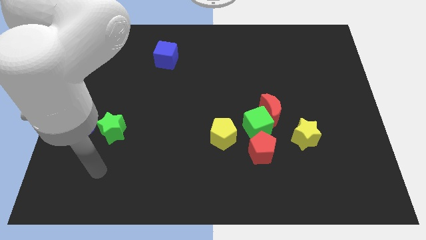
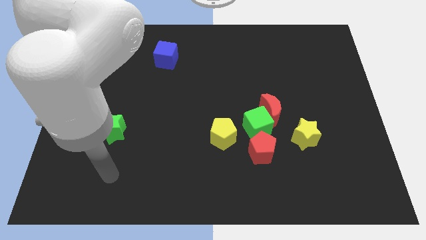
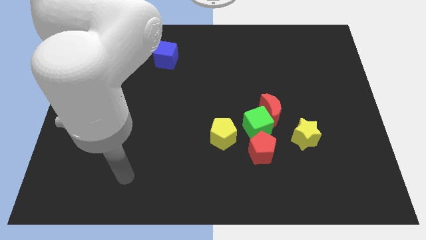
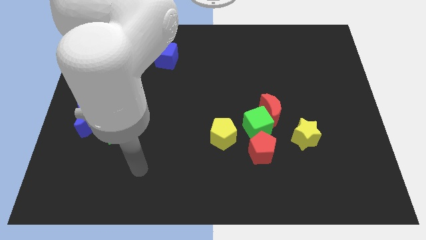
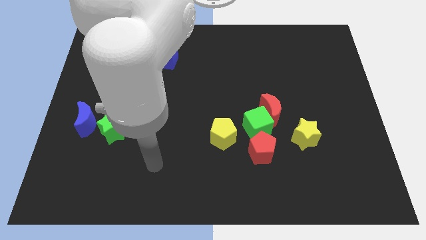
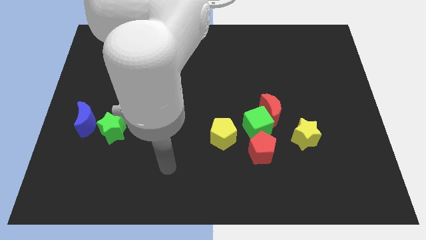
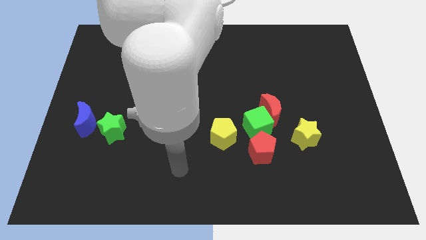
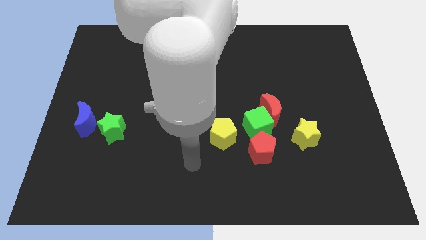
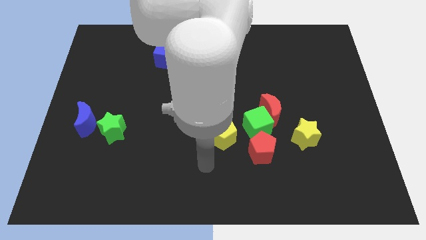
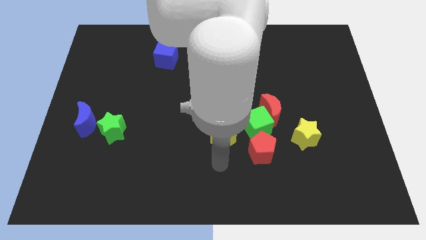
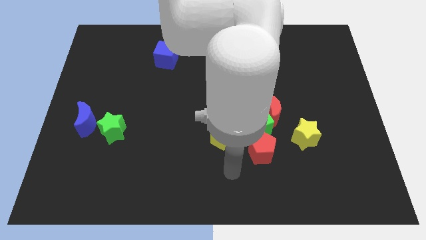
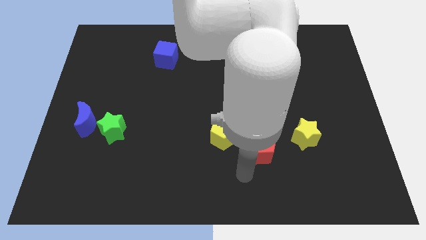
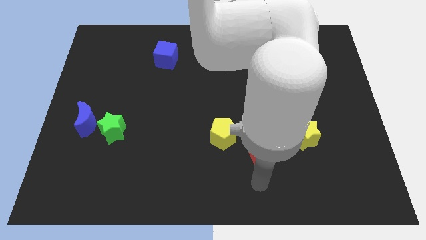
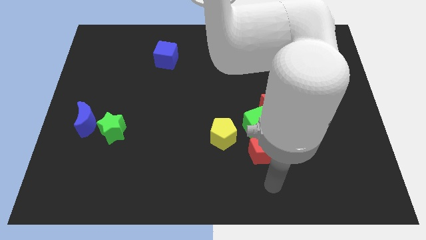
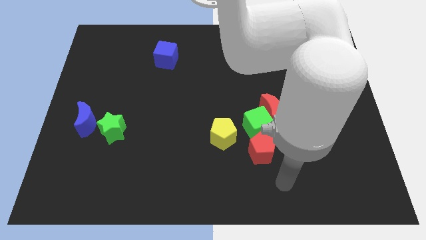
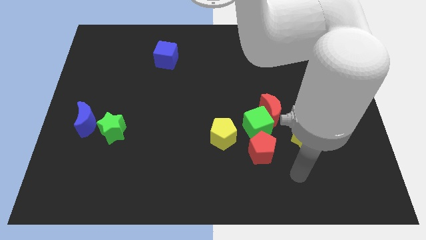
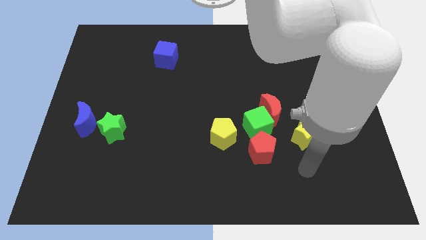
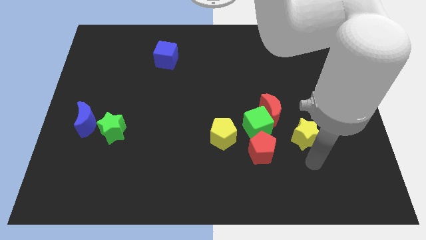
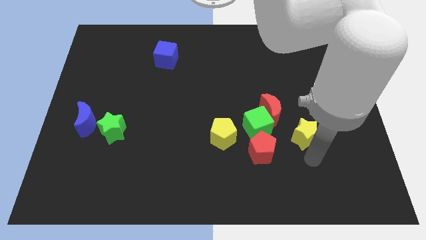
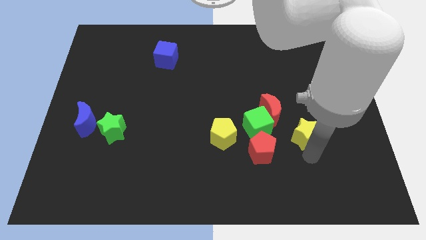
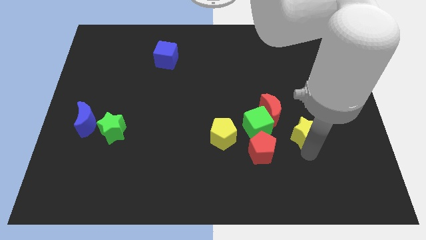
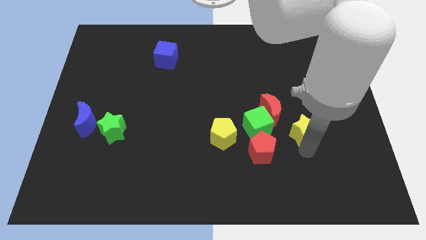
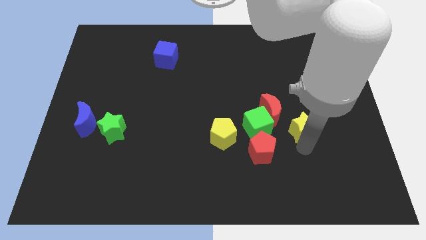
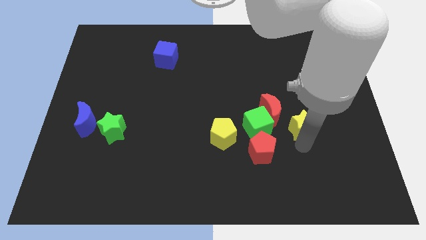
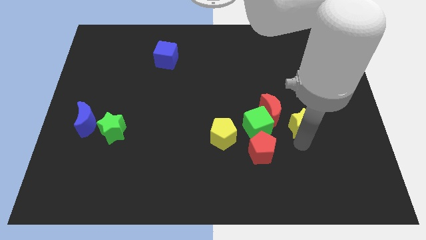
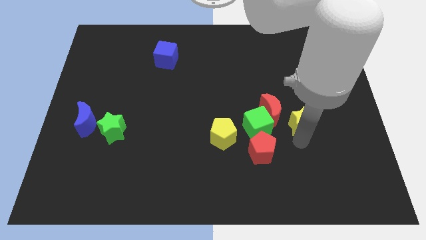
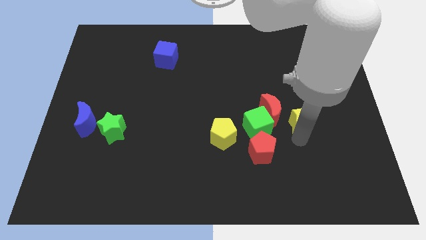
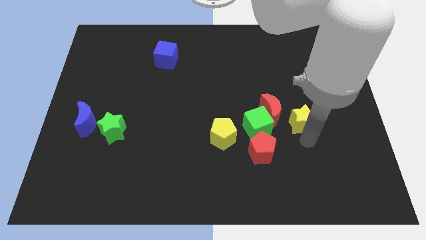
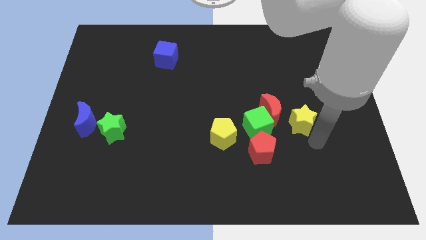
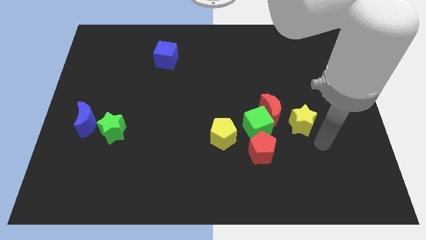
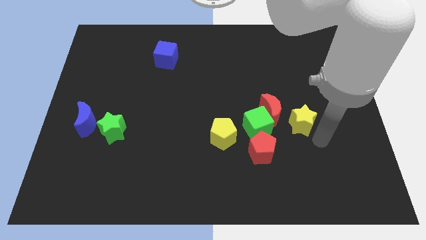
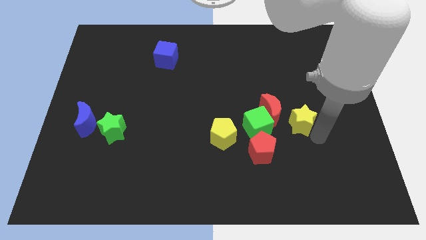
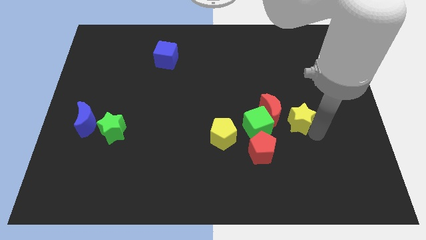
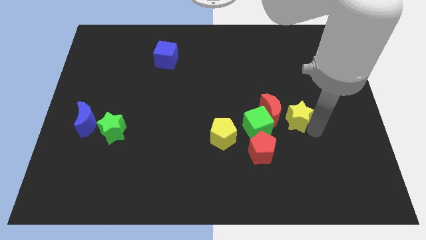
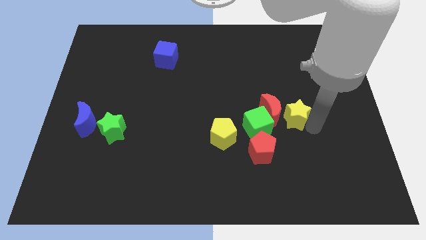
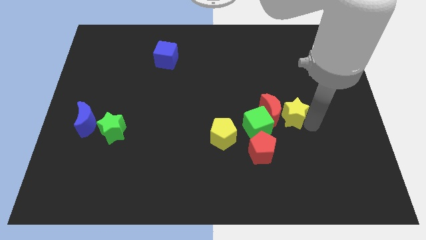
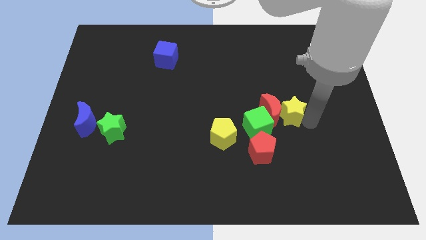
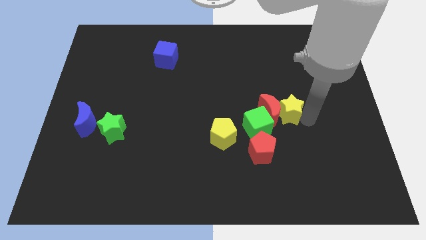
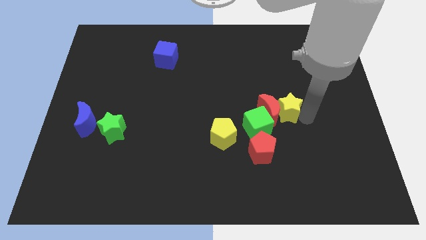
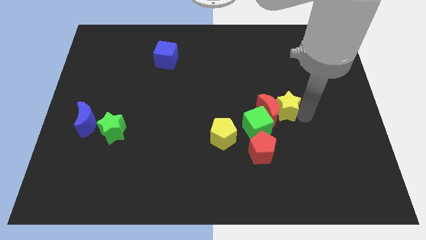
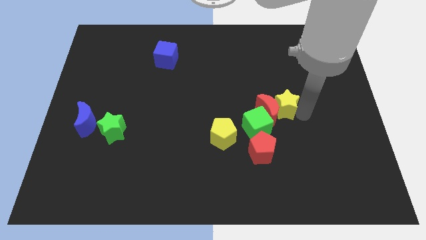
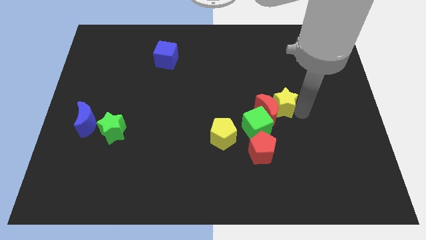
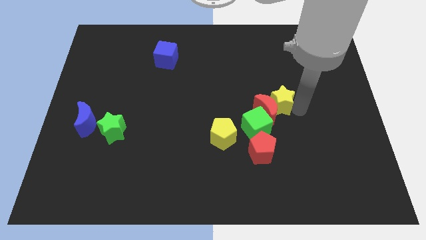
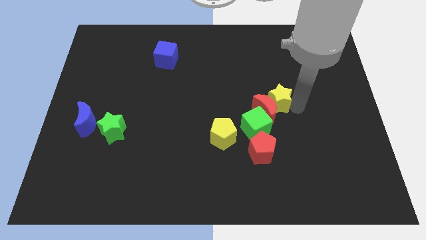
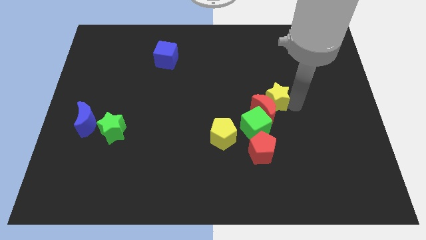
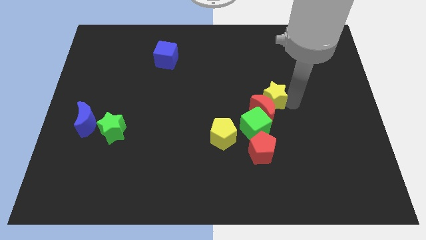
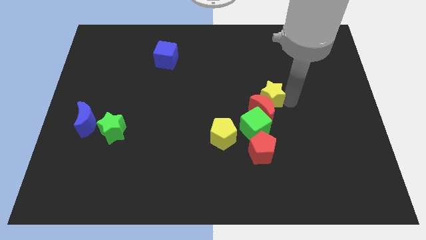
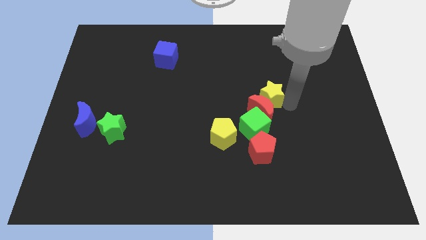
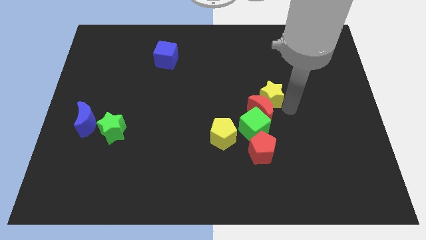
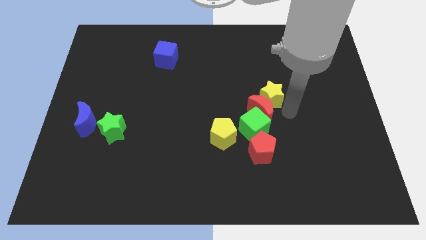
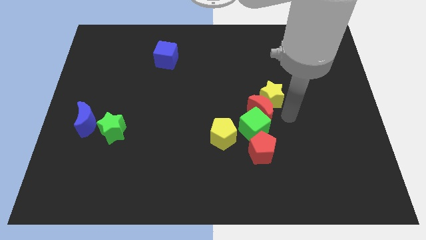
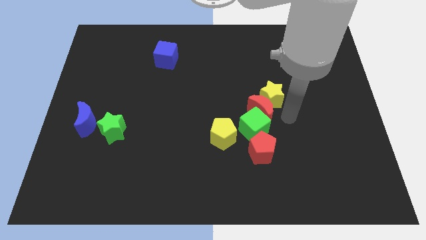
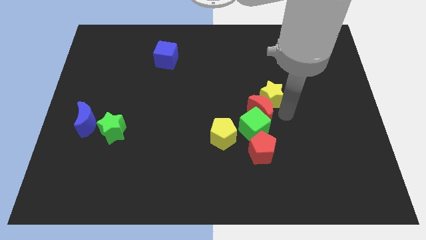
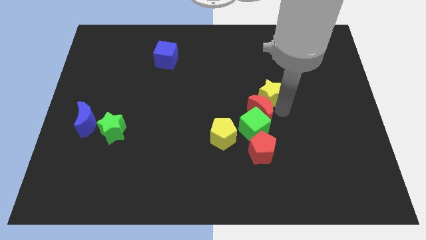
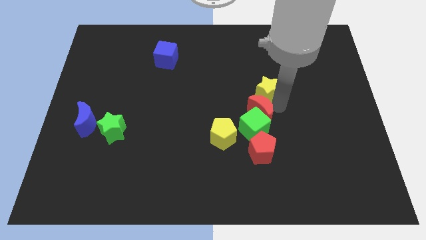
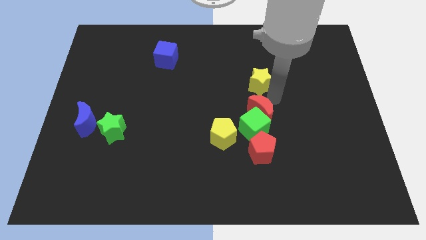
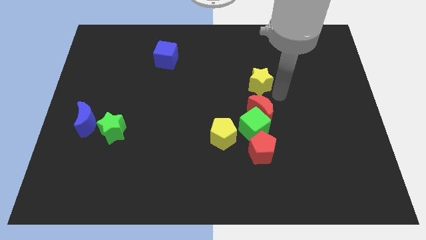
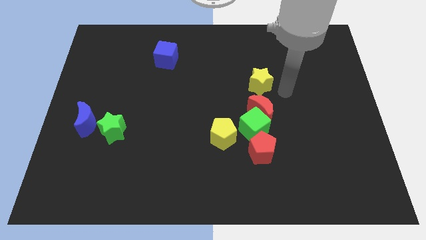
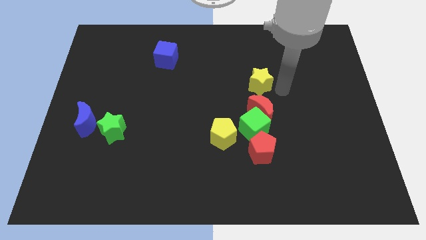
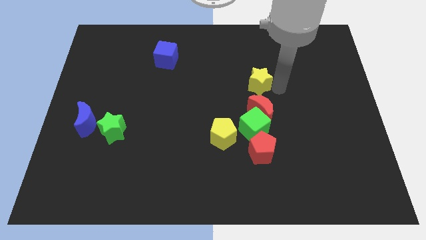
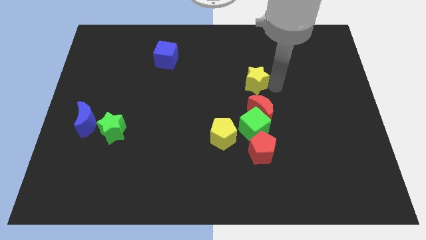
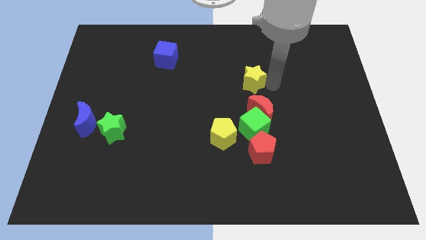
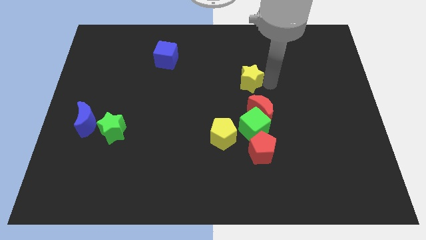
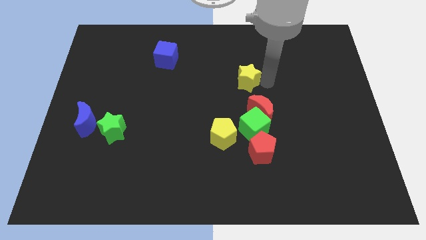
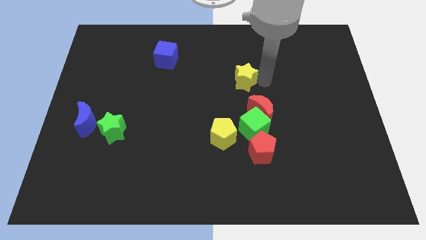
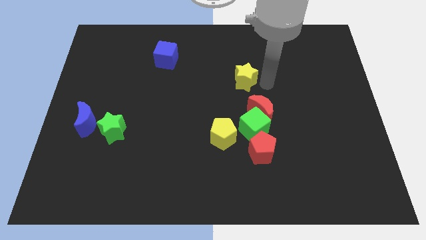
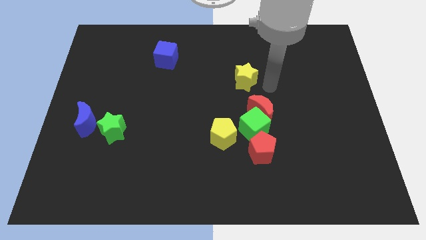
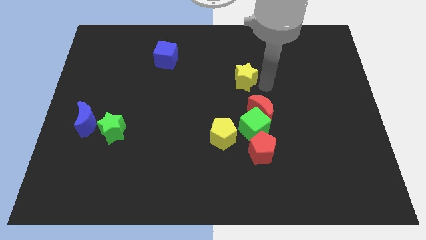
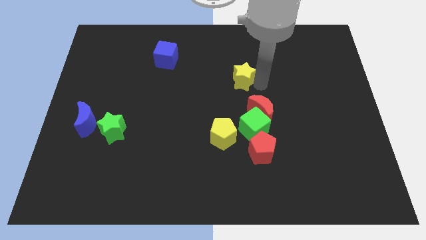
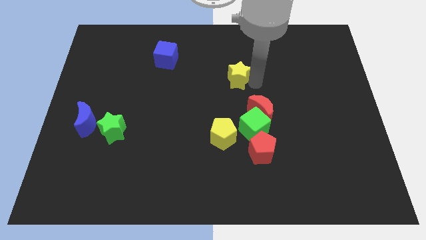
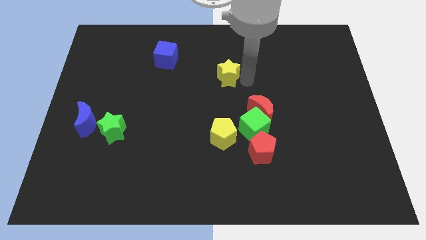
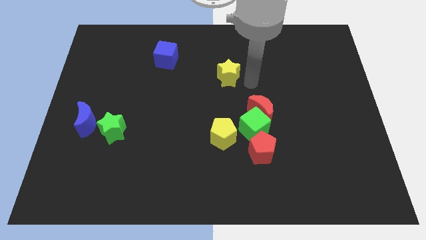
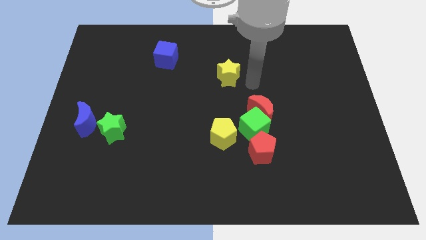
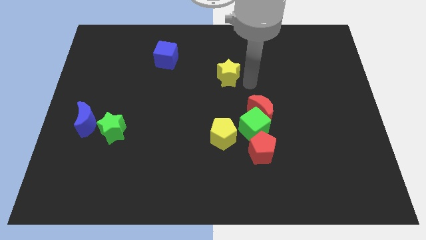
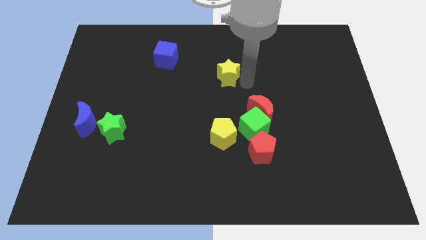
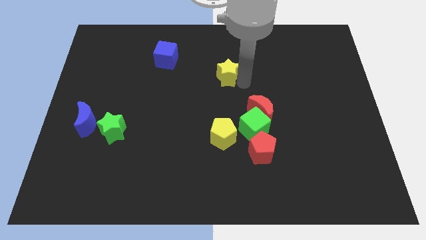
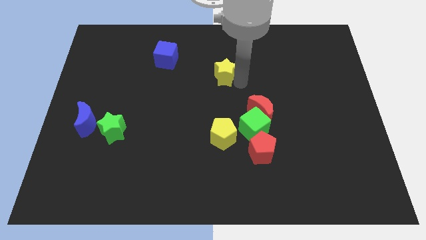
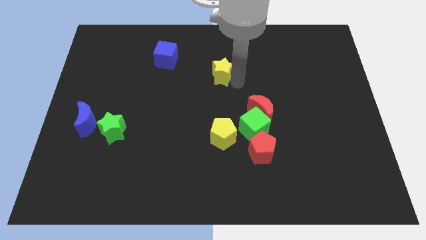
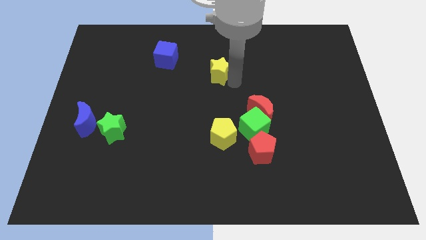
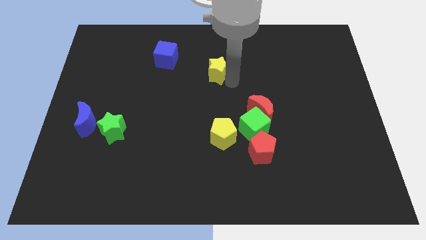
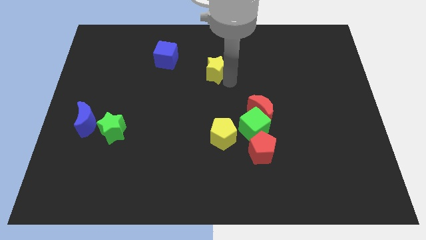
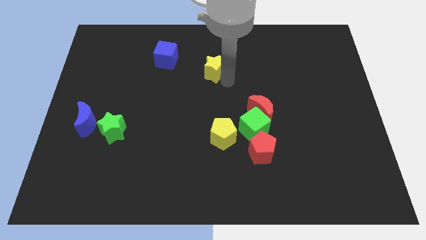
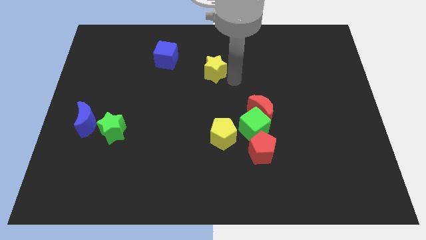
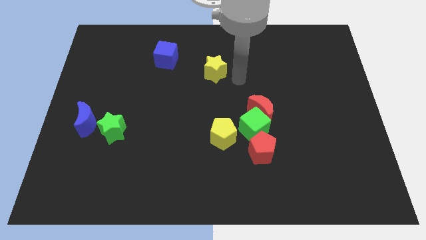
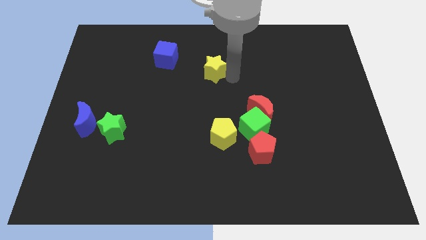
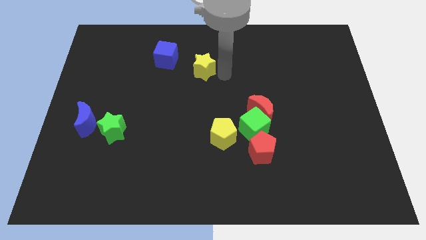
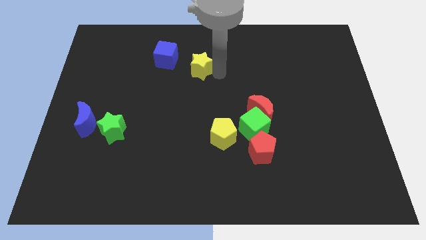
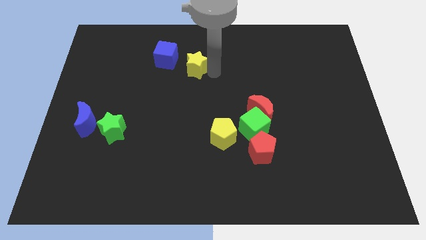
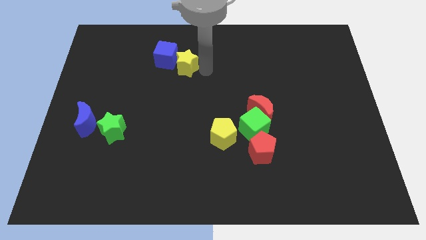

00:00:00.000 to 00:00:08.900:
move the yellow star close to the blue cube
